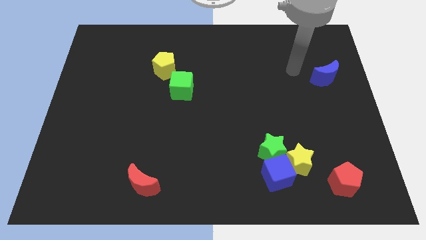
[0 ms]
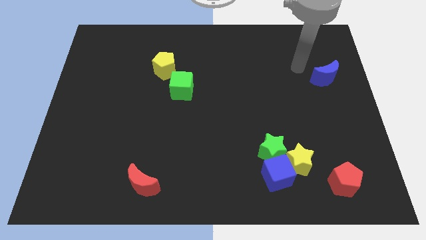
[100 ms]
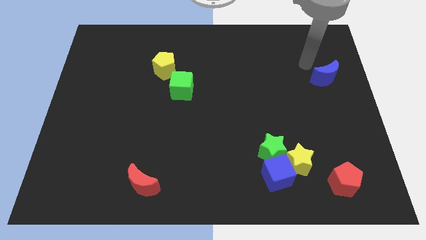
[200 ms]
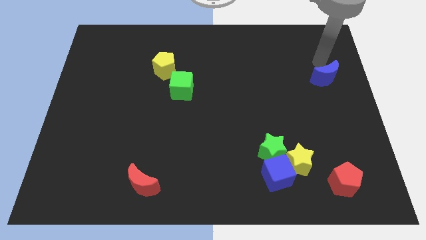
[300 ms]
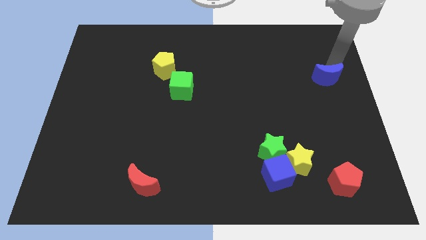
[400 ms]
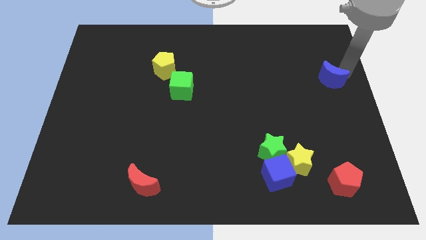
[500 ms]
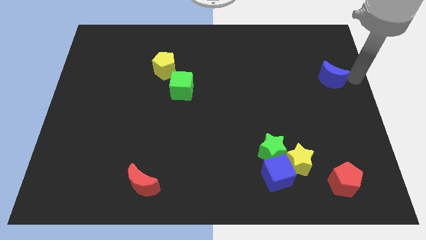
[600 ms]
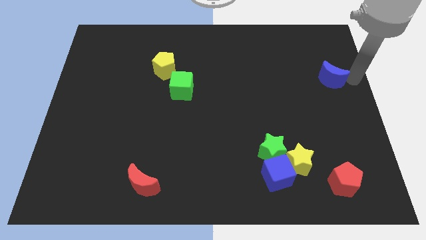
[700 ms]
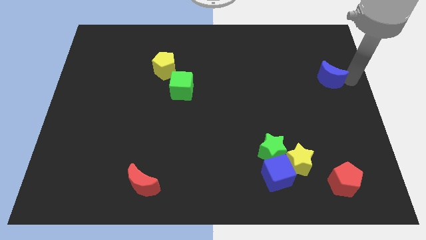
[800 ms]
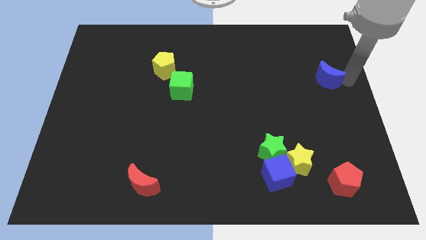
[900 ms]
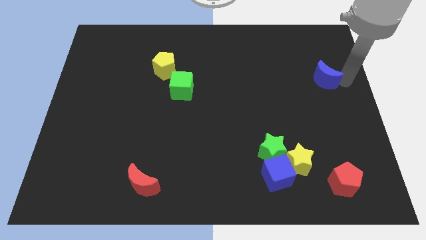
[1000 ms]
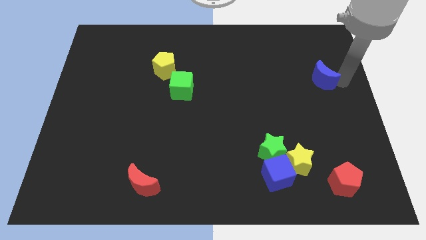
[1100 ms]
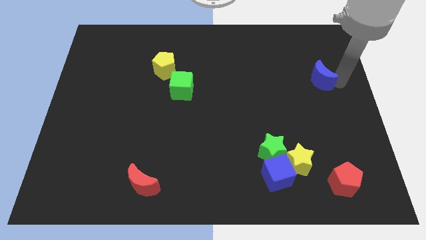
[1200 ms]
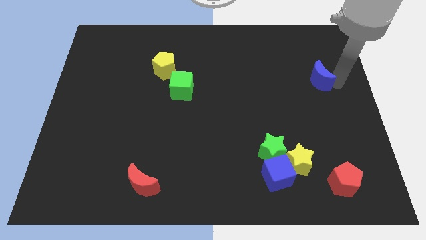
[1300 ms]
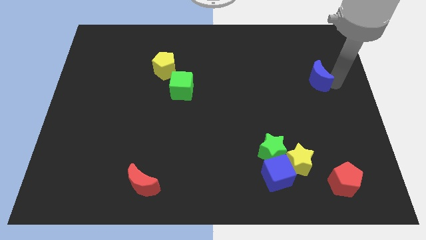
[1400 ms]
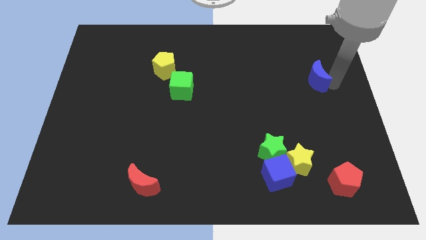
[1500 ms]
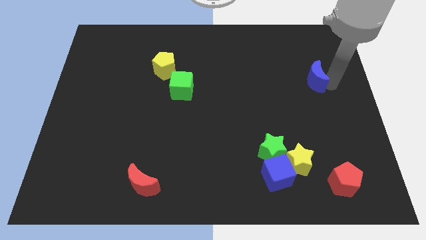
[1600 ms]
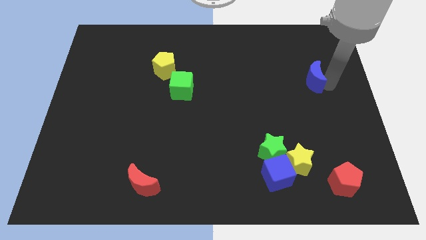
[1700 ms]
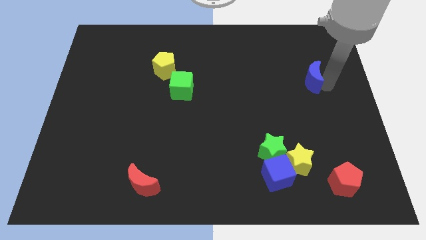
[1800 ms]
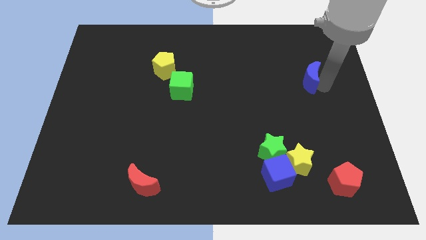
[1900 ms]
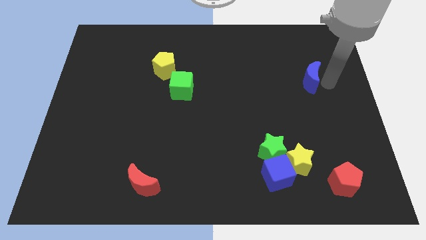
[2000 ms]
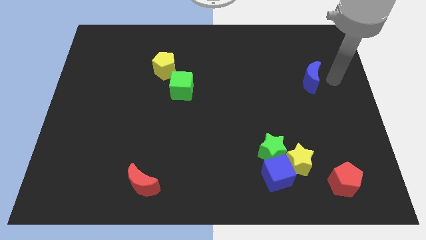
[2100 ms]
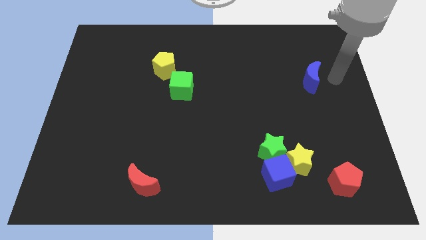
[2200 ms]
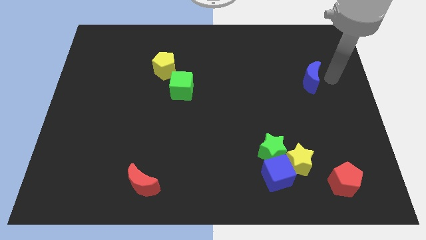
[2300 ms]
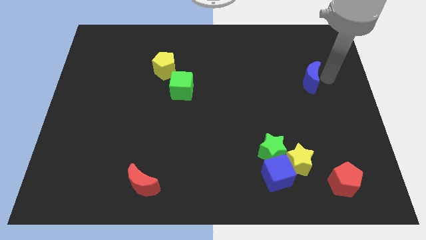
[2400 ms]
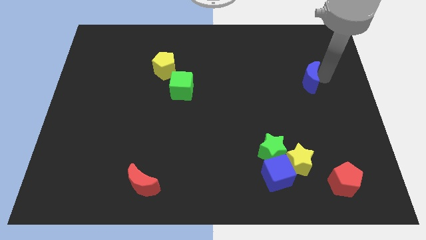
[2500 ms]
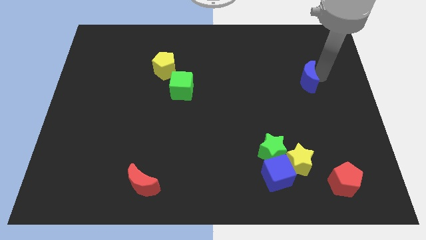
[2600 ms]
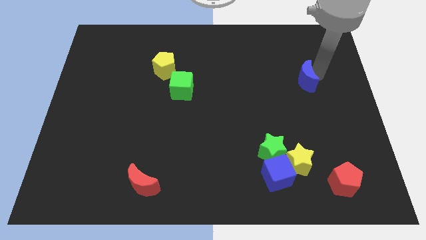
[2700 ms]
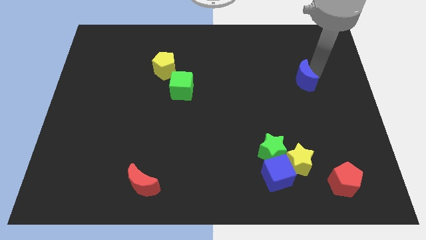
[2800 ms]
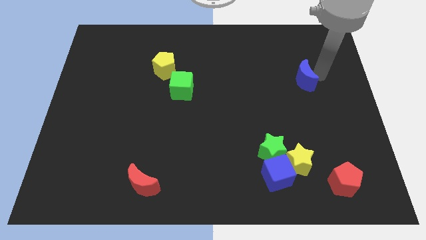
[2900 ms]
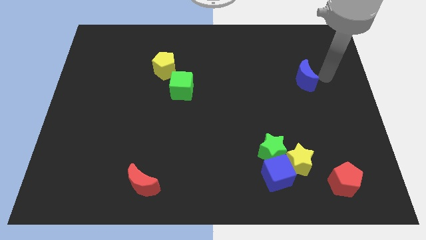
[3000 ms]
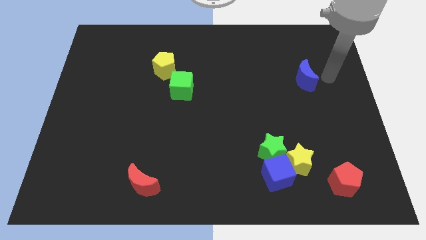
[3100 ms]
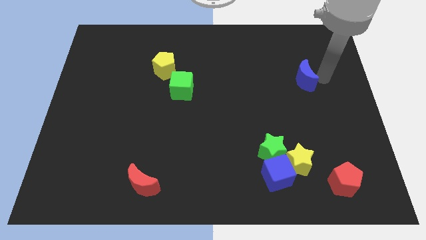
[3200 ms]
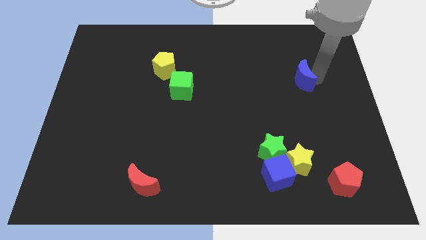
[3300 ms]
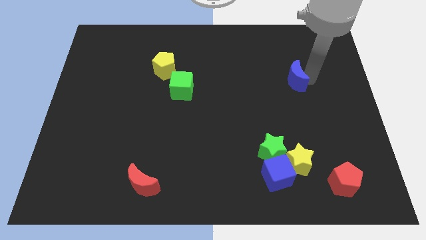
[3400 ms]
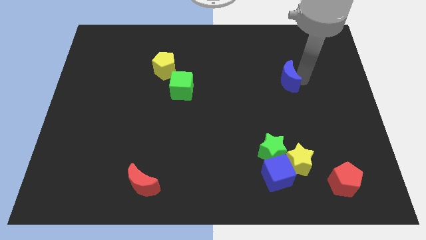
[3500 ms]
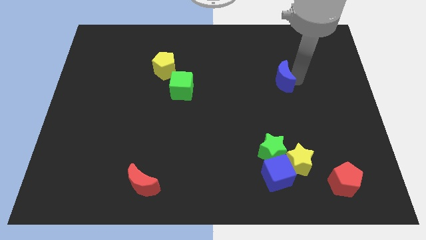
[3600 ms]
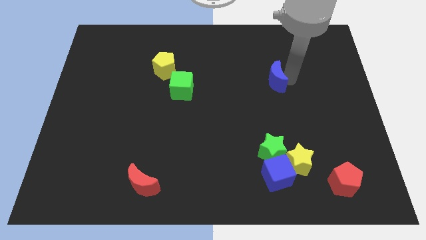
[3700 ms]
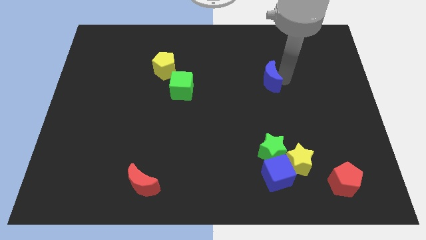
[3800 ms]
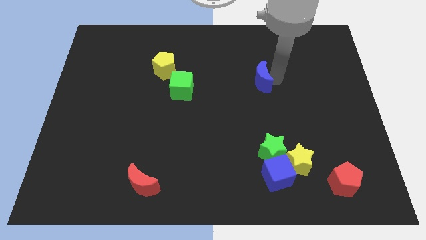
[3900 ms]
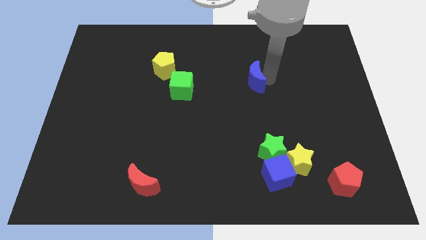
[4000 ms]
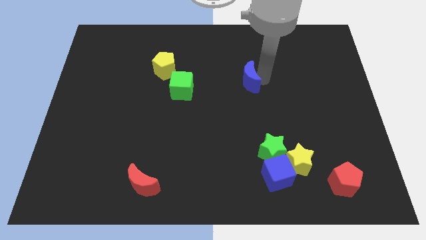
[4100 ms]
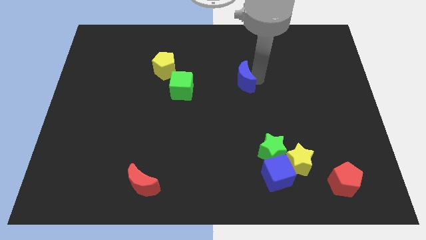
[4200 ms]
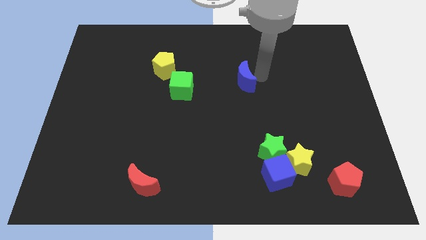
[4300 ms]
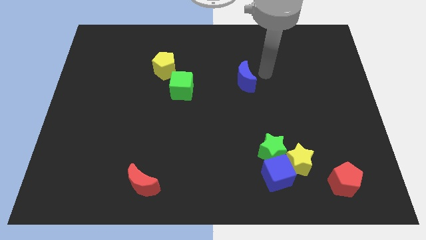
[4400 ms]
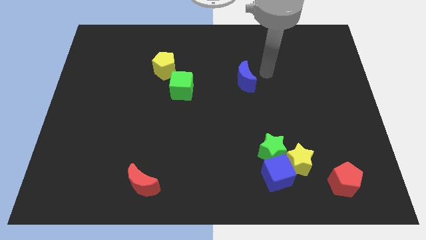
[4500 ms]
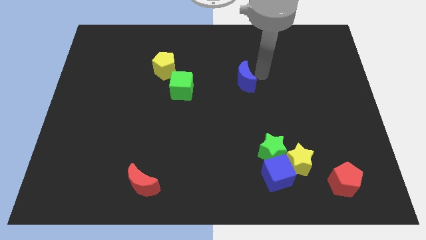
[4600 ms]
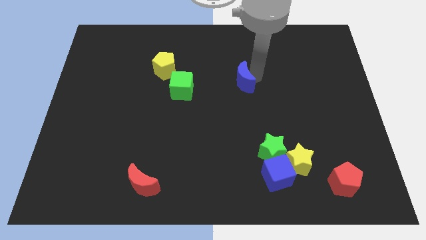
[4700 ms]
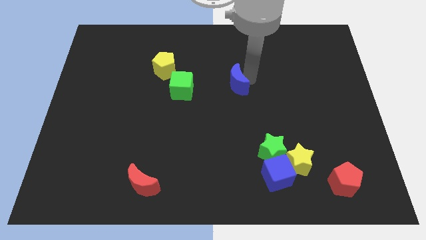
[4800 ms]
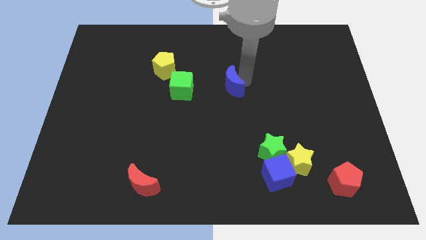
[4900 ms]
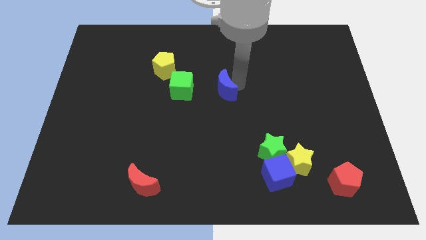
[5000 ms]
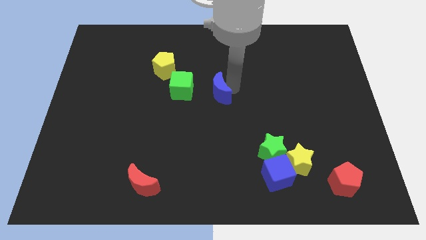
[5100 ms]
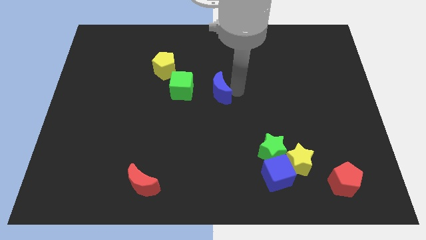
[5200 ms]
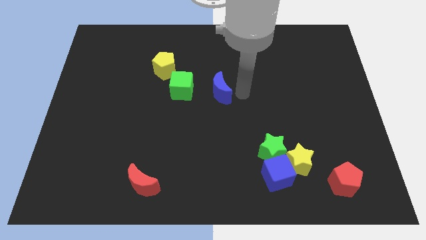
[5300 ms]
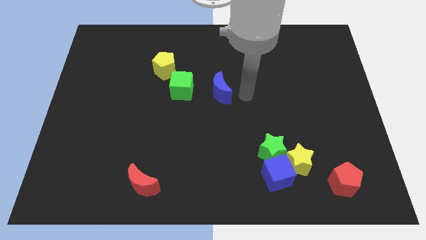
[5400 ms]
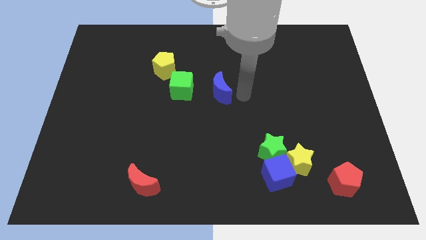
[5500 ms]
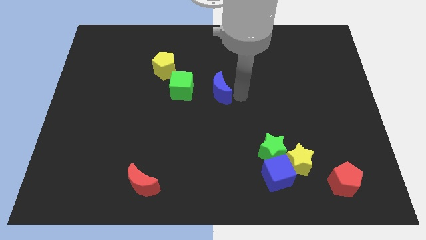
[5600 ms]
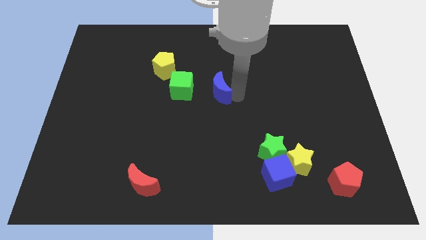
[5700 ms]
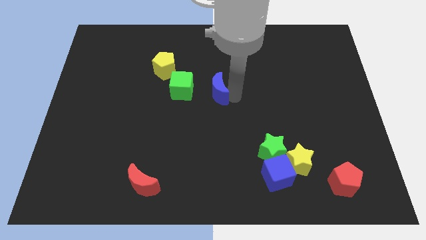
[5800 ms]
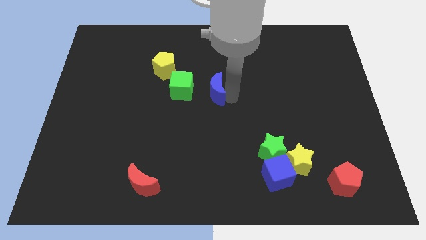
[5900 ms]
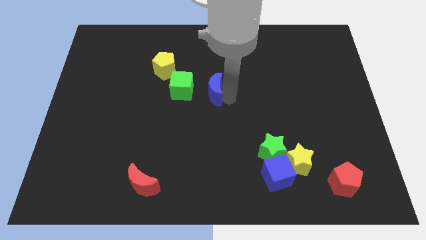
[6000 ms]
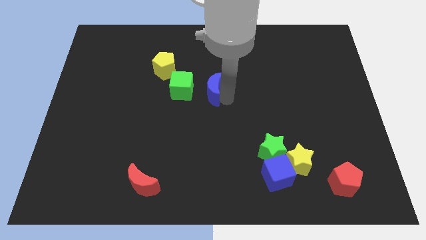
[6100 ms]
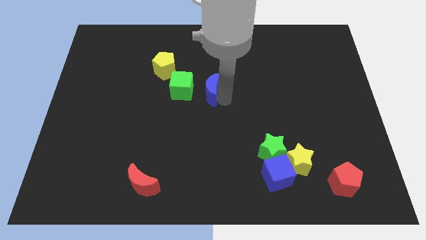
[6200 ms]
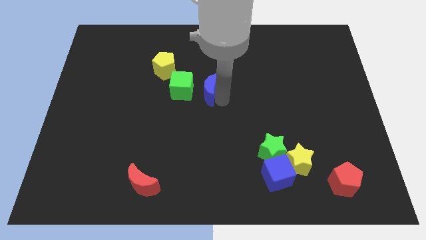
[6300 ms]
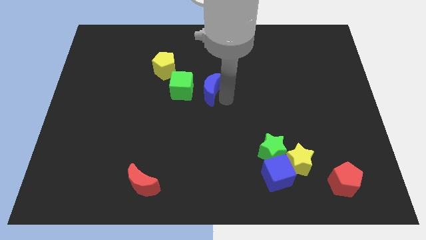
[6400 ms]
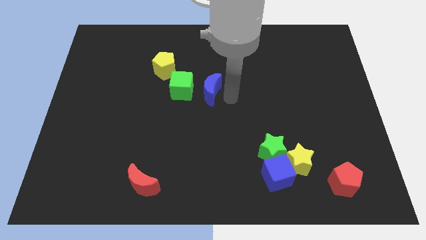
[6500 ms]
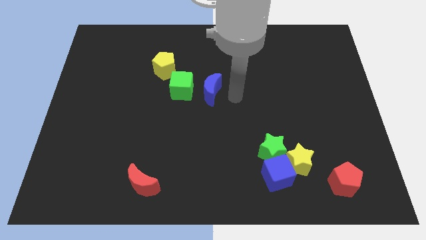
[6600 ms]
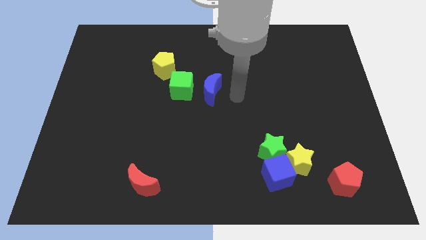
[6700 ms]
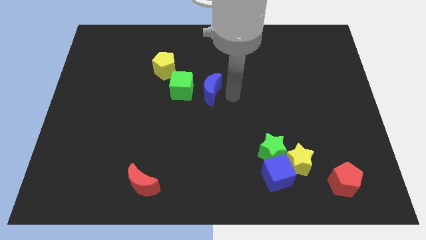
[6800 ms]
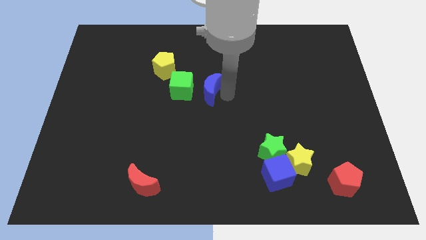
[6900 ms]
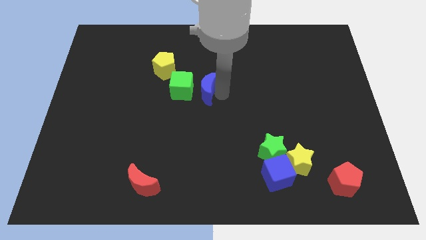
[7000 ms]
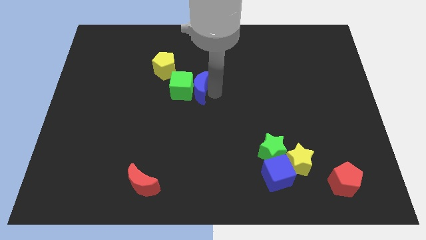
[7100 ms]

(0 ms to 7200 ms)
push the blue moon close to the green cube
